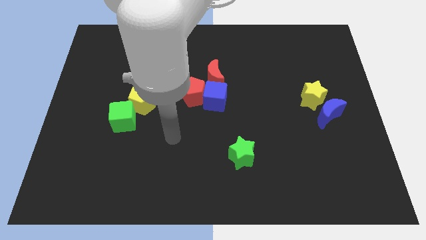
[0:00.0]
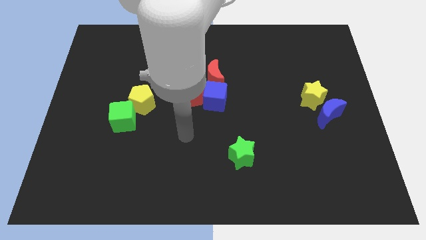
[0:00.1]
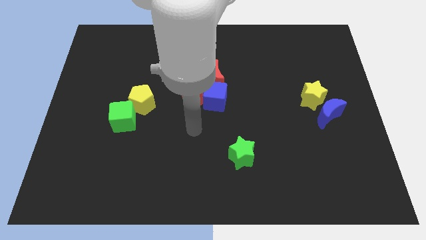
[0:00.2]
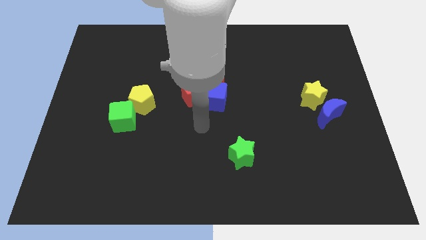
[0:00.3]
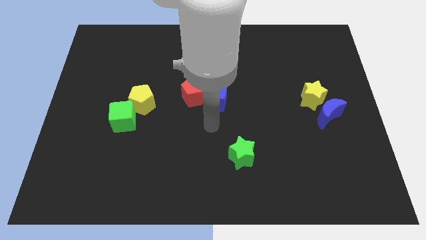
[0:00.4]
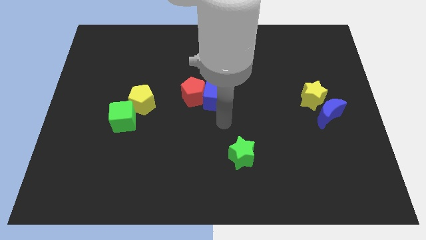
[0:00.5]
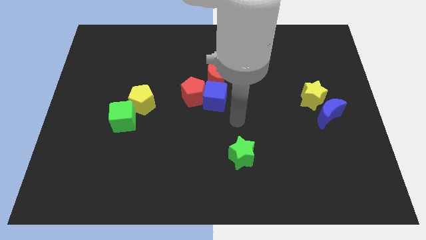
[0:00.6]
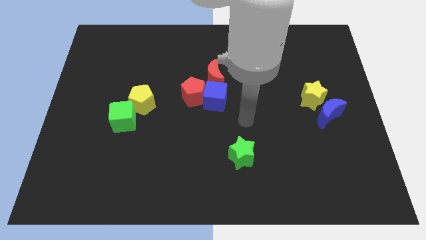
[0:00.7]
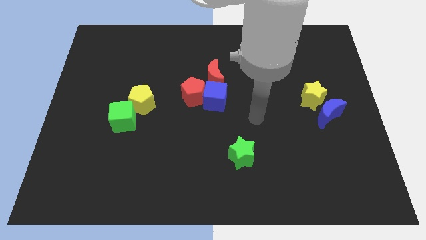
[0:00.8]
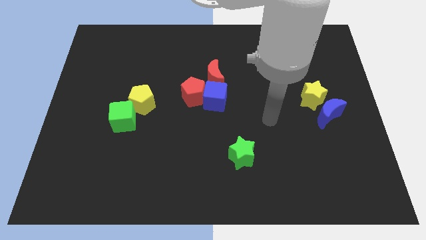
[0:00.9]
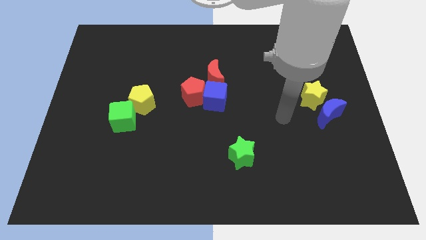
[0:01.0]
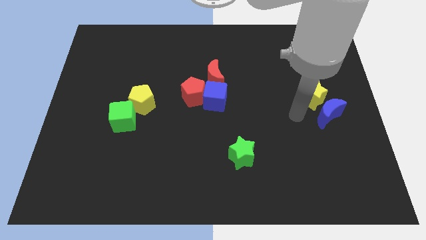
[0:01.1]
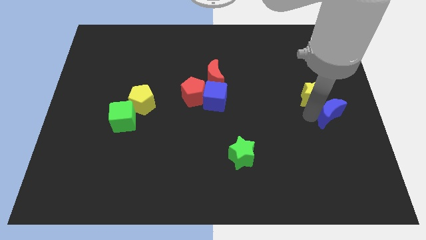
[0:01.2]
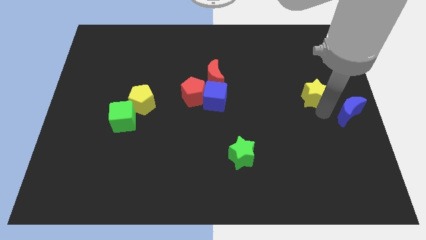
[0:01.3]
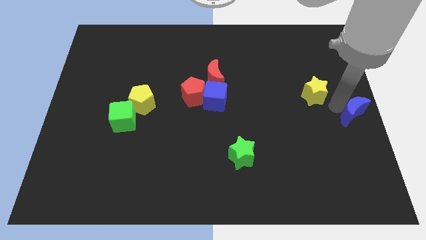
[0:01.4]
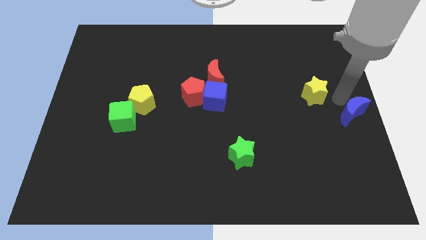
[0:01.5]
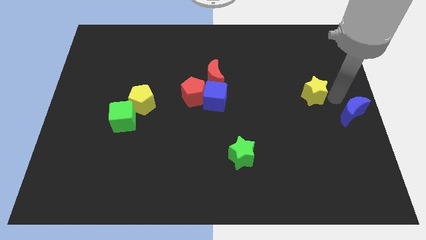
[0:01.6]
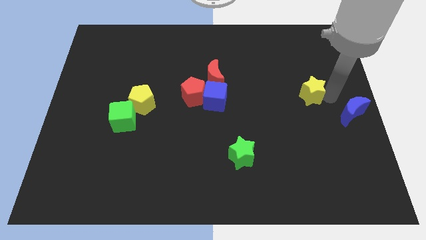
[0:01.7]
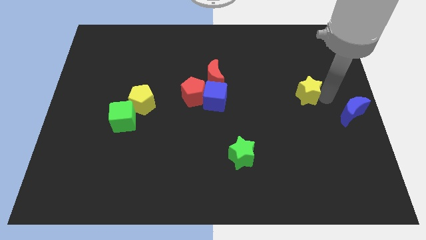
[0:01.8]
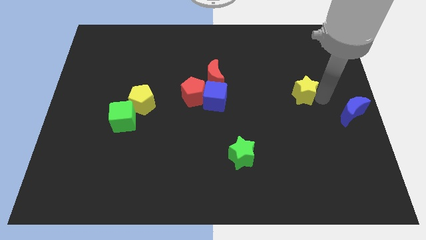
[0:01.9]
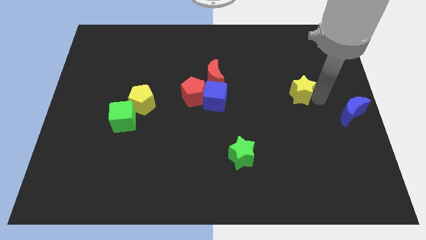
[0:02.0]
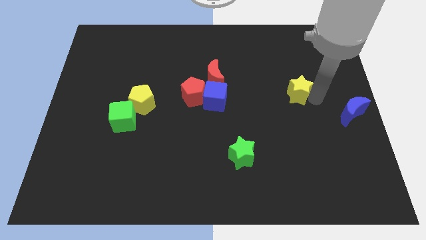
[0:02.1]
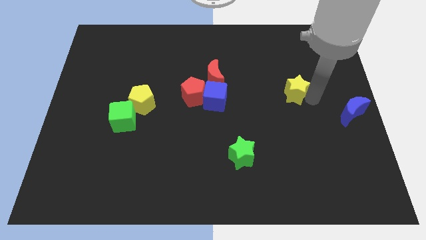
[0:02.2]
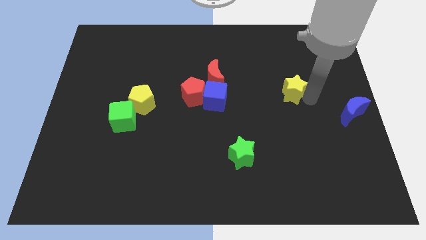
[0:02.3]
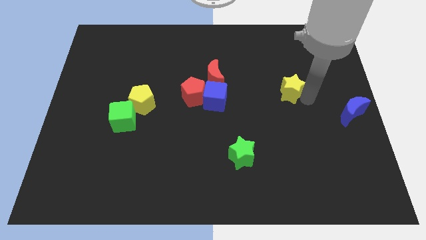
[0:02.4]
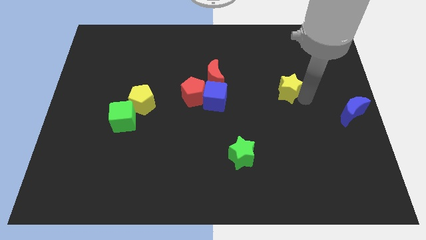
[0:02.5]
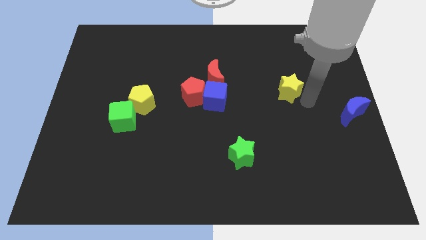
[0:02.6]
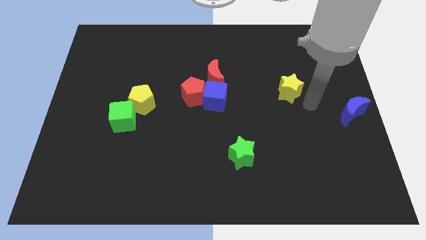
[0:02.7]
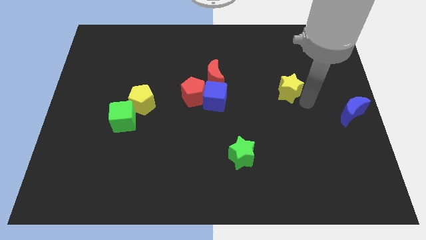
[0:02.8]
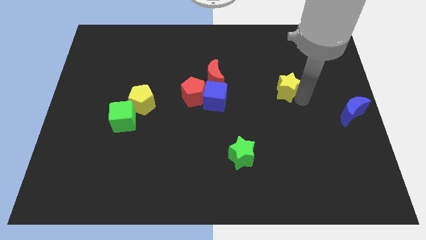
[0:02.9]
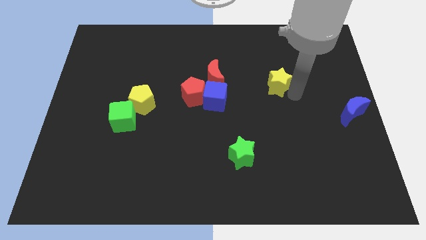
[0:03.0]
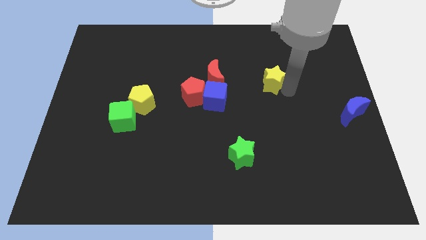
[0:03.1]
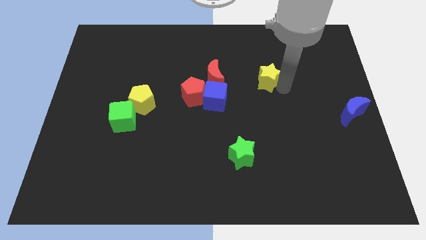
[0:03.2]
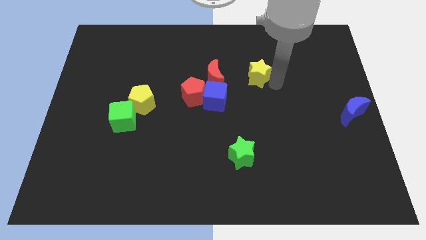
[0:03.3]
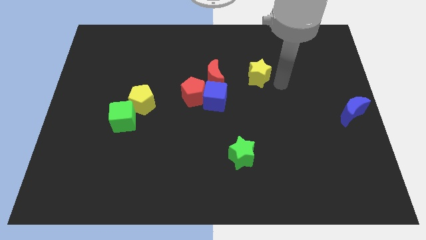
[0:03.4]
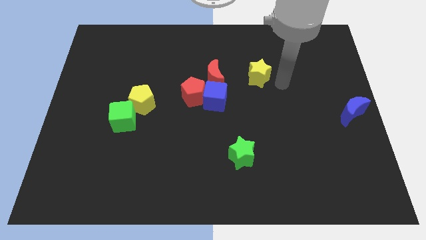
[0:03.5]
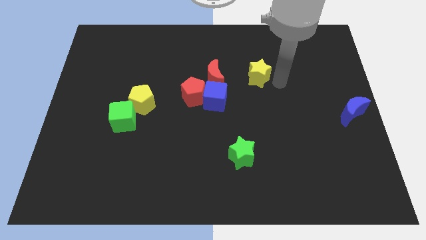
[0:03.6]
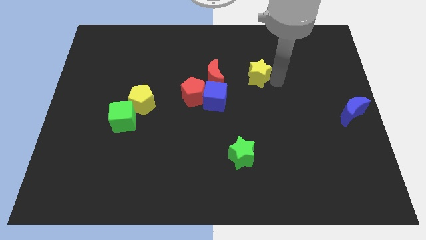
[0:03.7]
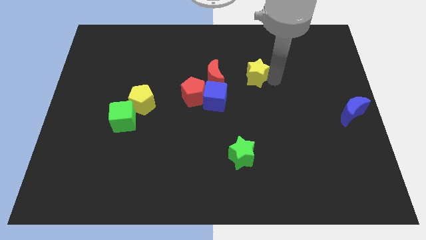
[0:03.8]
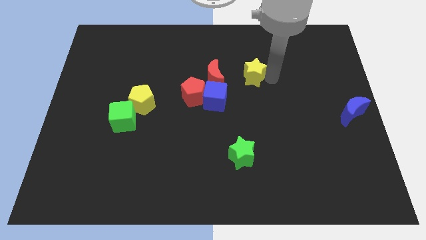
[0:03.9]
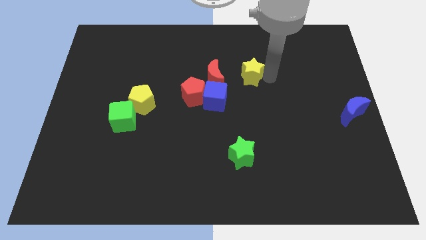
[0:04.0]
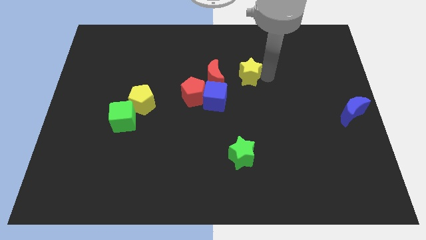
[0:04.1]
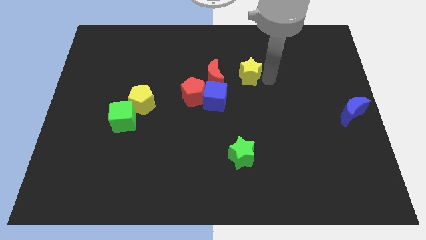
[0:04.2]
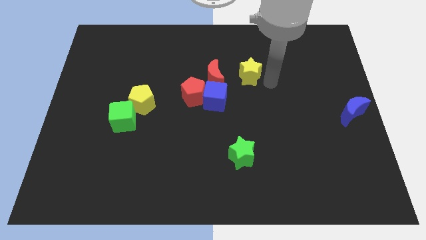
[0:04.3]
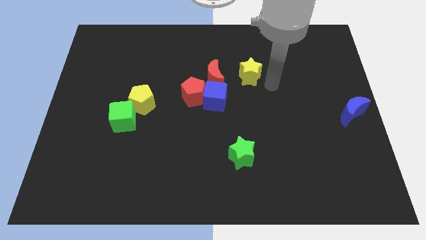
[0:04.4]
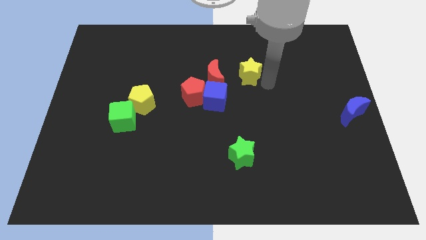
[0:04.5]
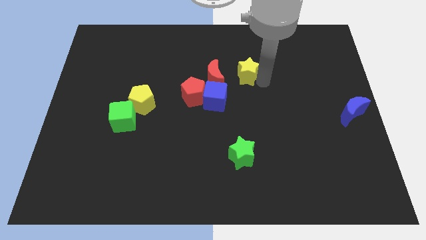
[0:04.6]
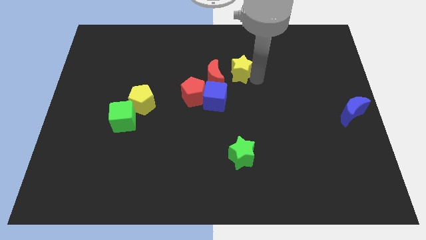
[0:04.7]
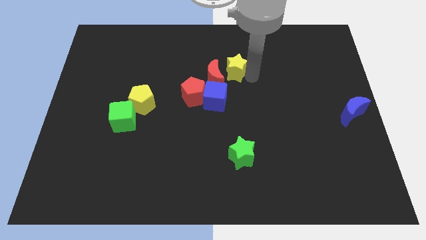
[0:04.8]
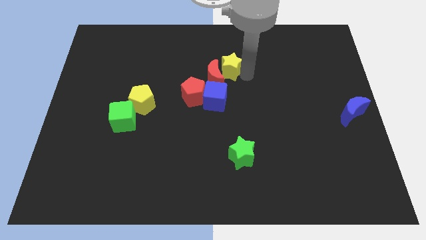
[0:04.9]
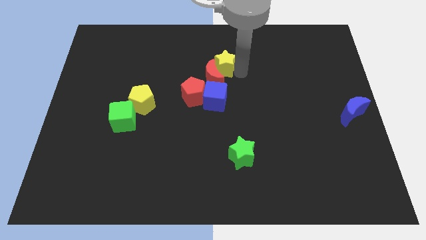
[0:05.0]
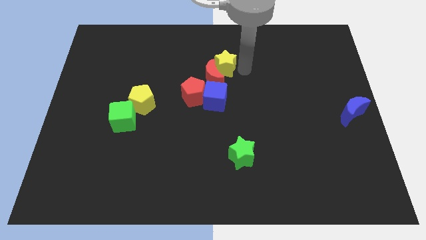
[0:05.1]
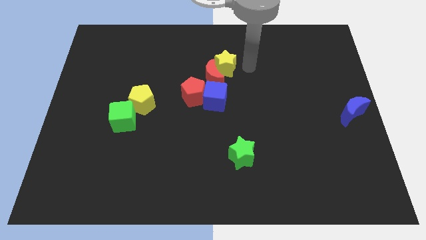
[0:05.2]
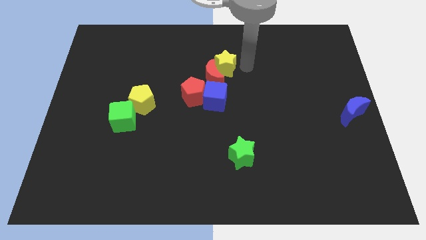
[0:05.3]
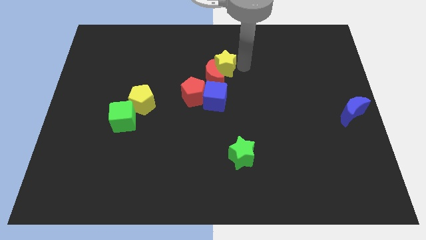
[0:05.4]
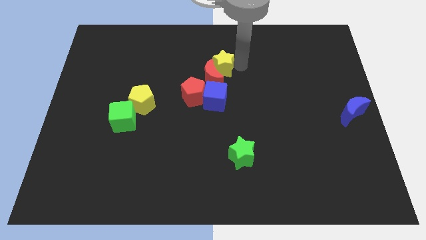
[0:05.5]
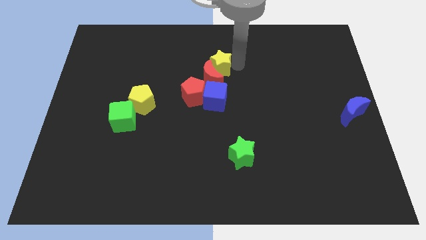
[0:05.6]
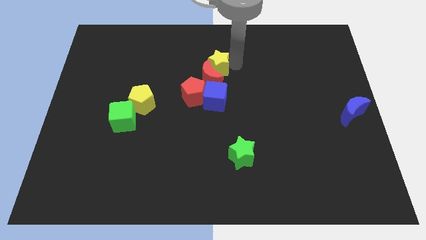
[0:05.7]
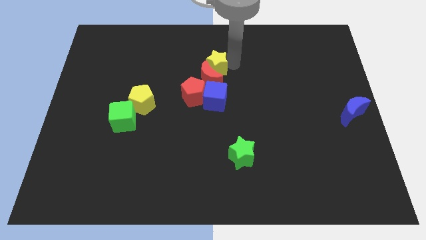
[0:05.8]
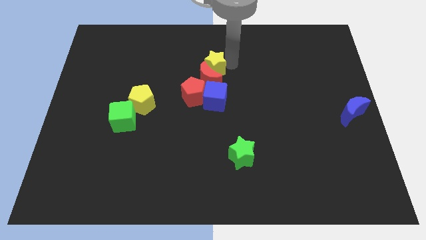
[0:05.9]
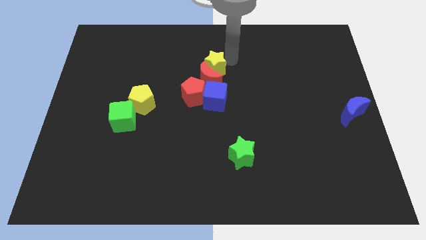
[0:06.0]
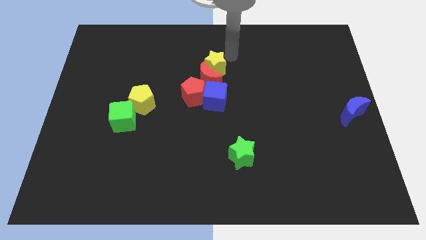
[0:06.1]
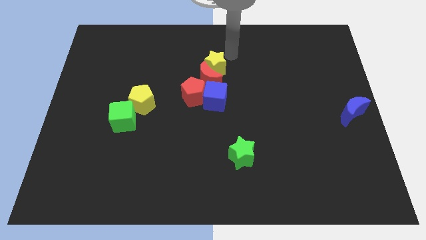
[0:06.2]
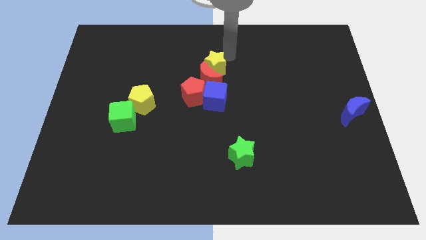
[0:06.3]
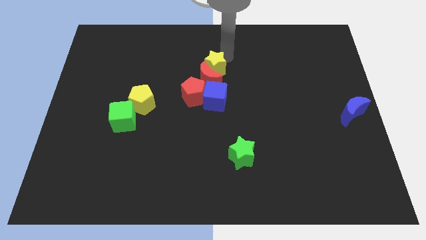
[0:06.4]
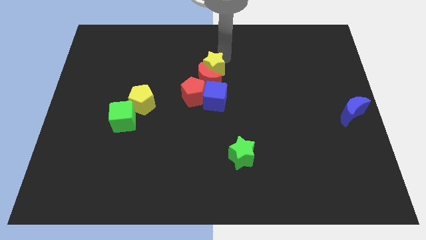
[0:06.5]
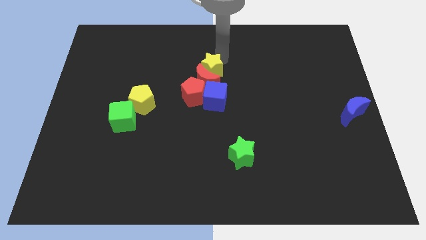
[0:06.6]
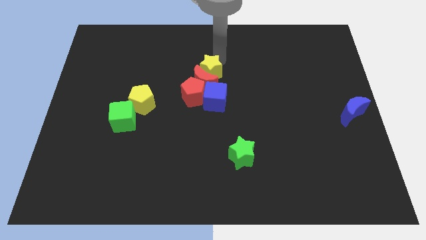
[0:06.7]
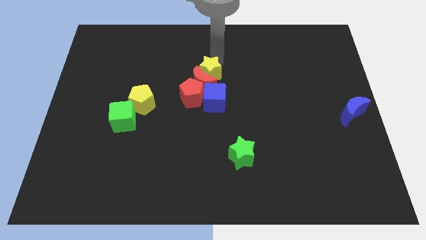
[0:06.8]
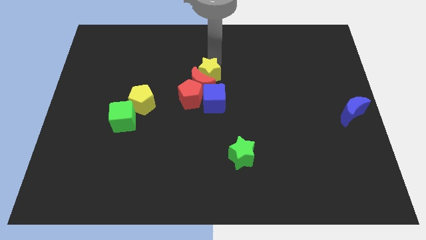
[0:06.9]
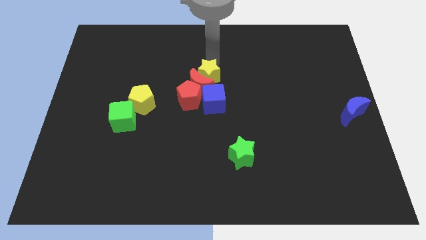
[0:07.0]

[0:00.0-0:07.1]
move the yellow star to the top left side of the blue cube

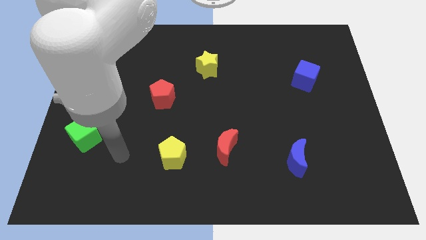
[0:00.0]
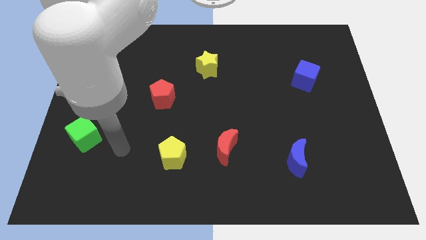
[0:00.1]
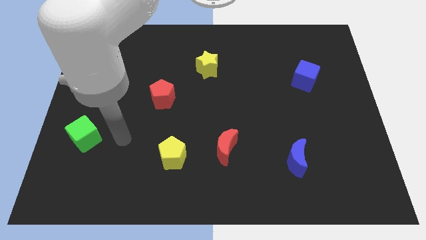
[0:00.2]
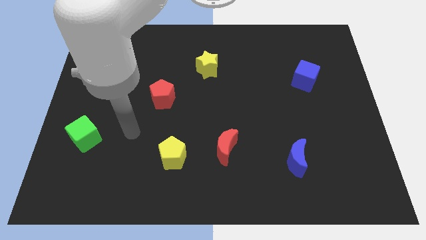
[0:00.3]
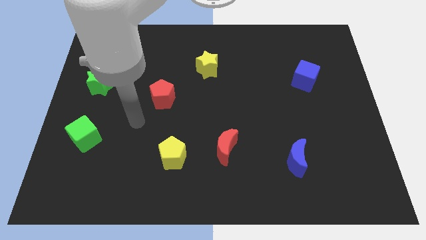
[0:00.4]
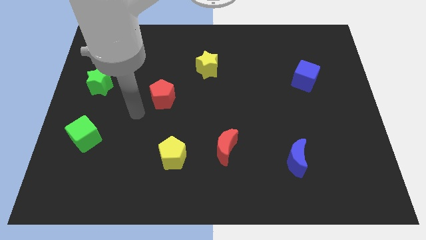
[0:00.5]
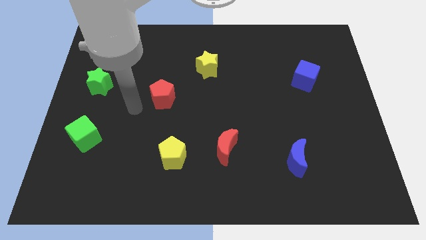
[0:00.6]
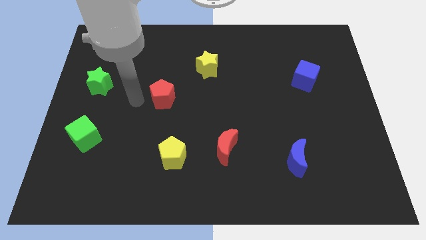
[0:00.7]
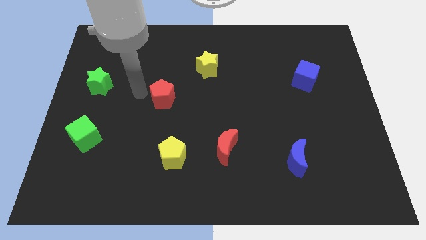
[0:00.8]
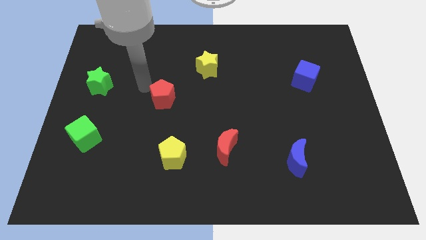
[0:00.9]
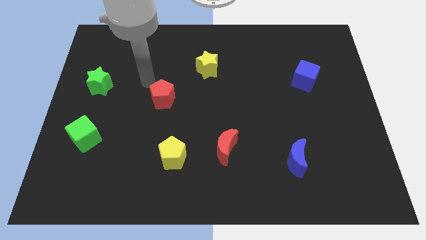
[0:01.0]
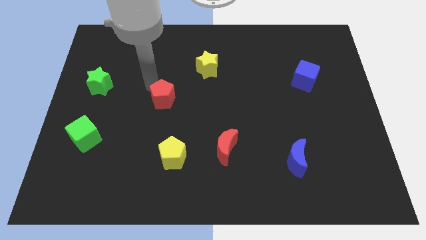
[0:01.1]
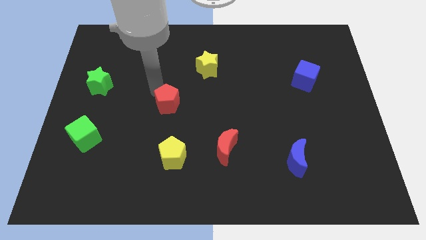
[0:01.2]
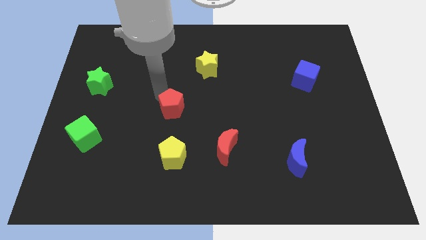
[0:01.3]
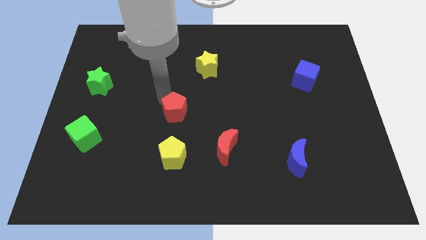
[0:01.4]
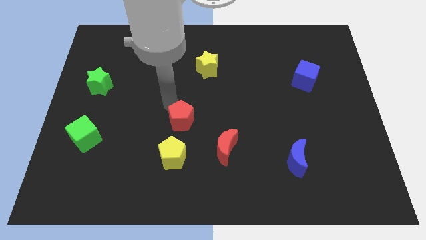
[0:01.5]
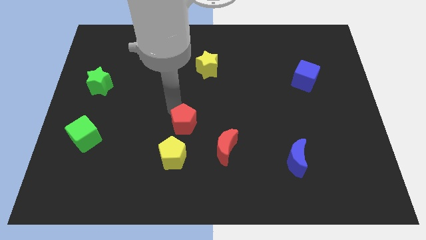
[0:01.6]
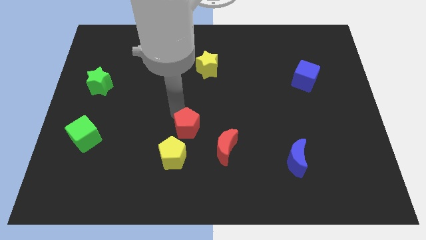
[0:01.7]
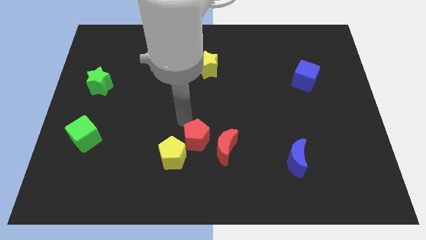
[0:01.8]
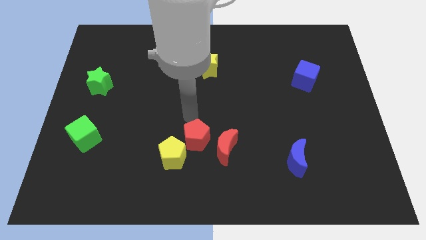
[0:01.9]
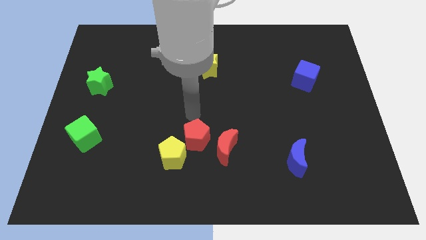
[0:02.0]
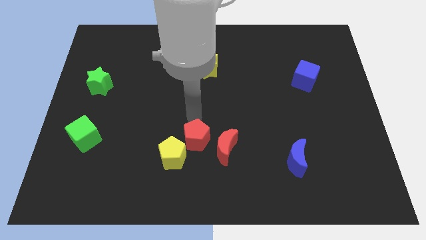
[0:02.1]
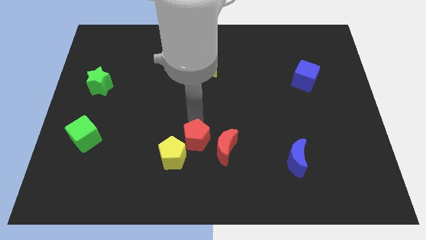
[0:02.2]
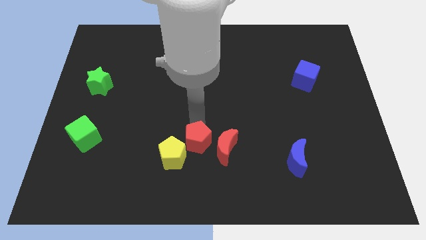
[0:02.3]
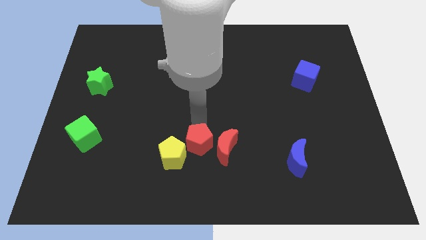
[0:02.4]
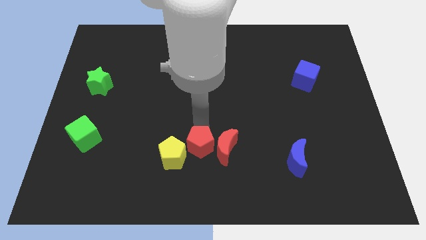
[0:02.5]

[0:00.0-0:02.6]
slide the red pentagon diagonally down and to the left of the red moon
